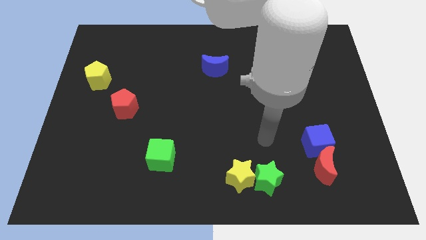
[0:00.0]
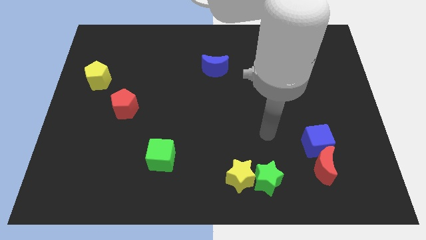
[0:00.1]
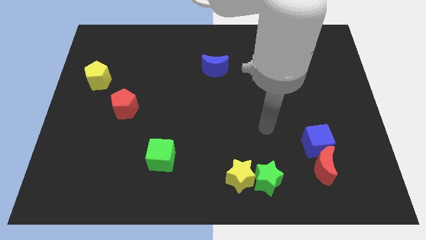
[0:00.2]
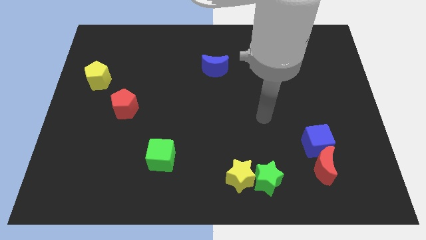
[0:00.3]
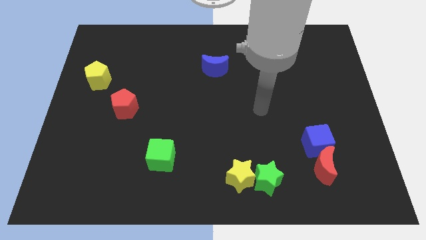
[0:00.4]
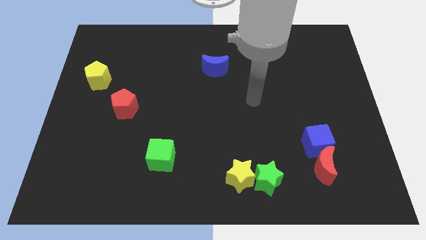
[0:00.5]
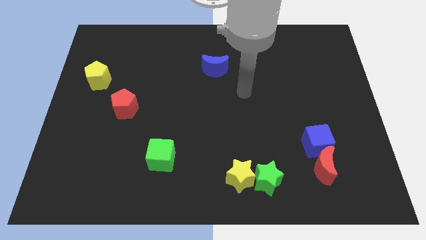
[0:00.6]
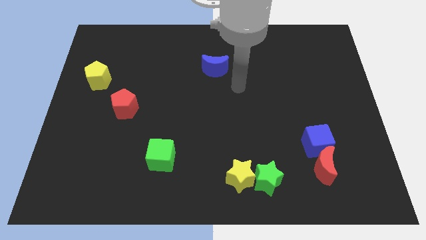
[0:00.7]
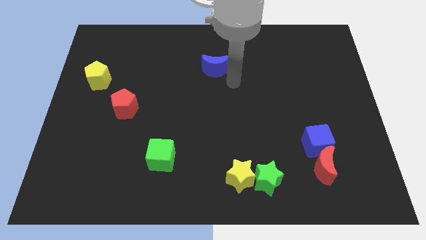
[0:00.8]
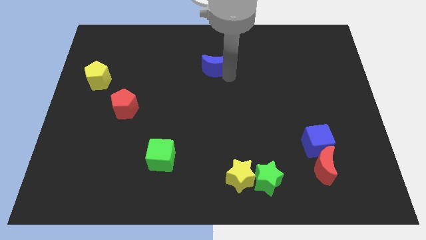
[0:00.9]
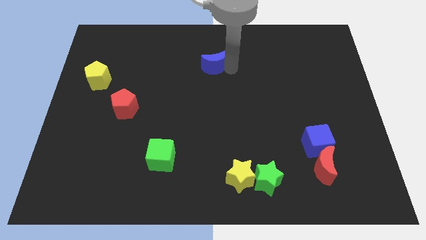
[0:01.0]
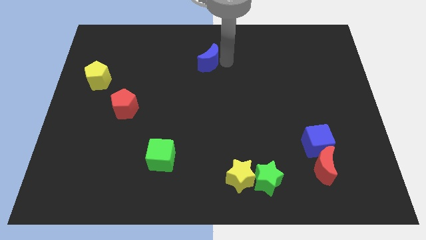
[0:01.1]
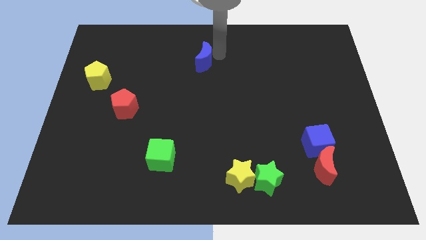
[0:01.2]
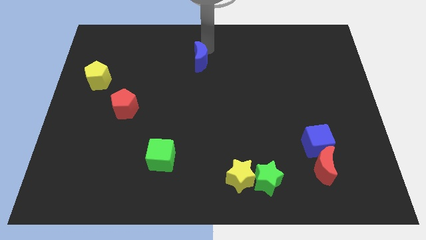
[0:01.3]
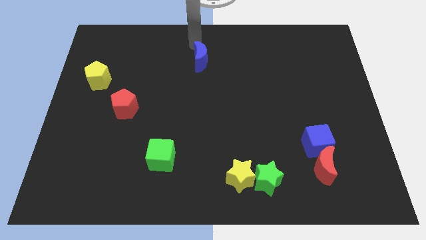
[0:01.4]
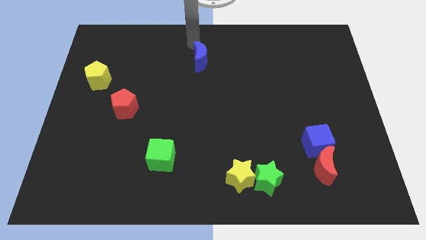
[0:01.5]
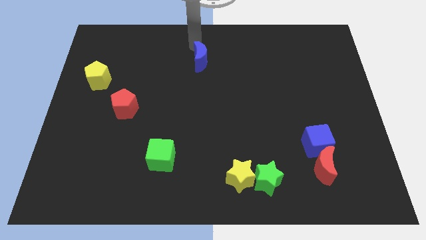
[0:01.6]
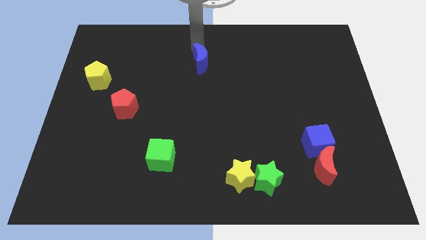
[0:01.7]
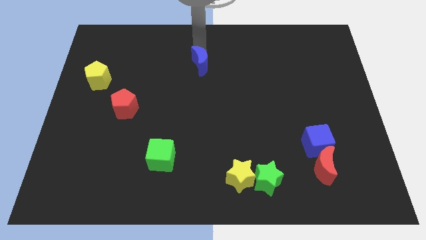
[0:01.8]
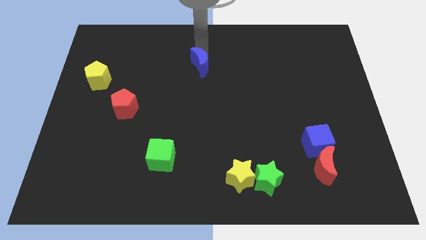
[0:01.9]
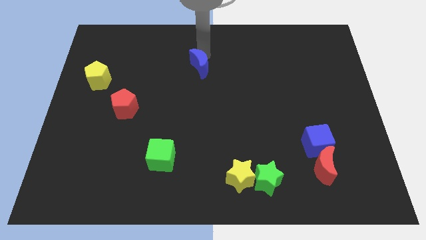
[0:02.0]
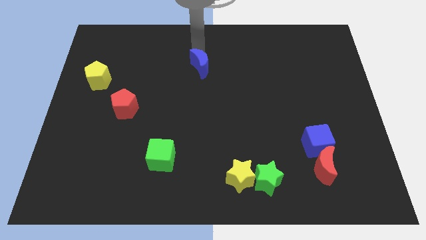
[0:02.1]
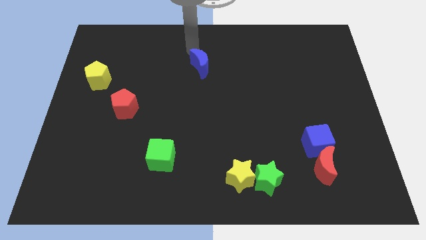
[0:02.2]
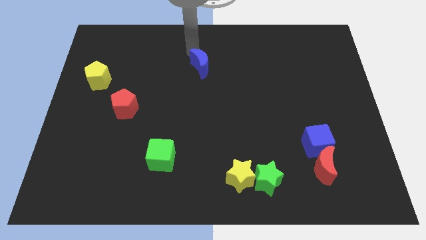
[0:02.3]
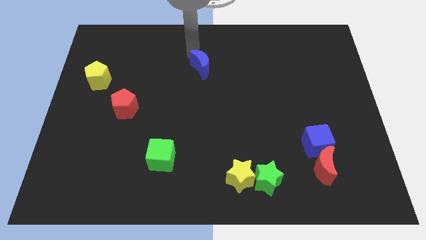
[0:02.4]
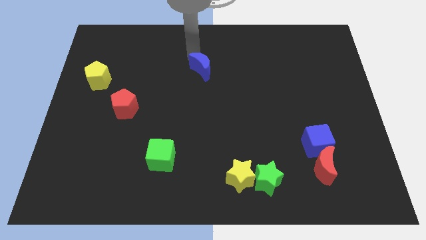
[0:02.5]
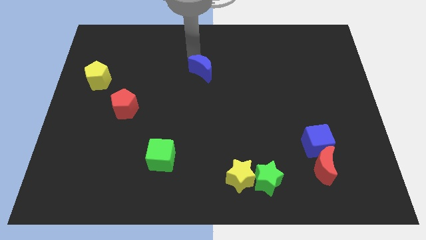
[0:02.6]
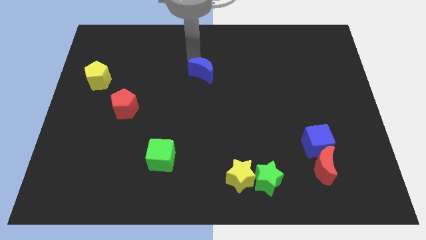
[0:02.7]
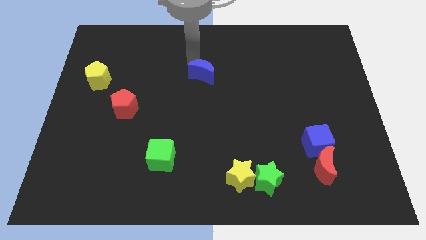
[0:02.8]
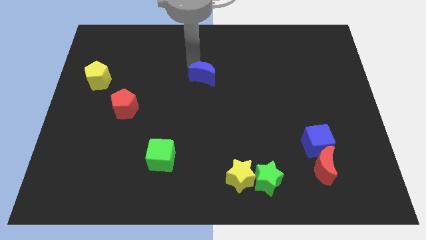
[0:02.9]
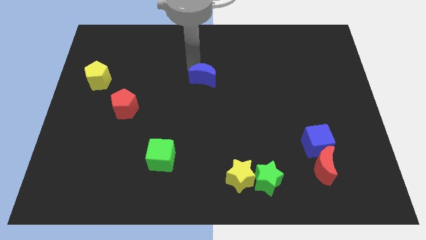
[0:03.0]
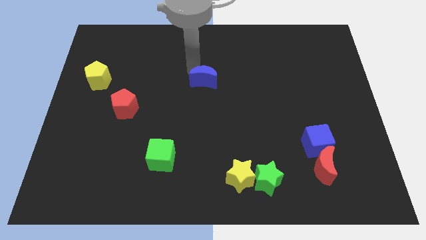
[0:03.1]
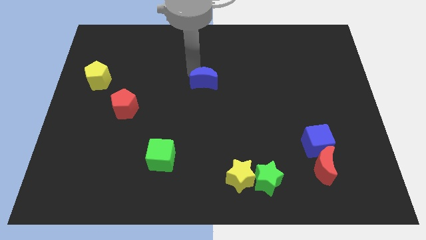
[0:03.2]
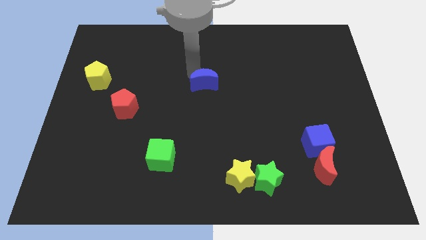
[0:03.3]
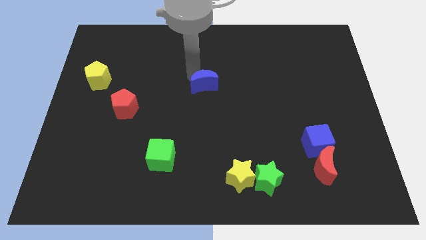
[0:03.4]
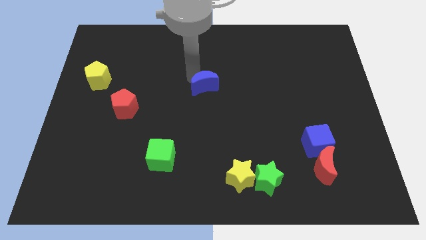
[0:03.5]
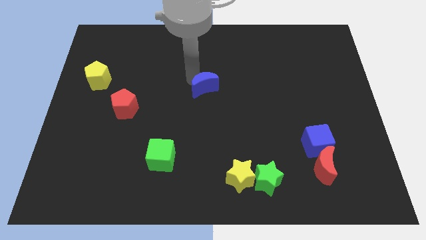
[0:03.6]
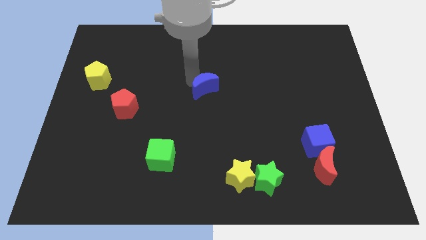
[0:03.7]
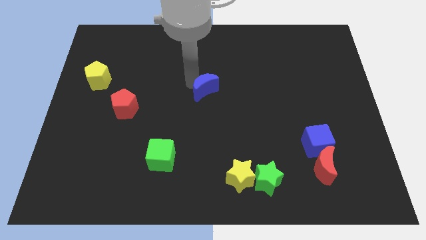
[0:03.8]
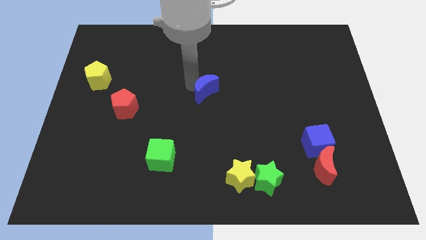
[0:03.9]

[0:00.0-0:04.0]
push the blue moon a little downwards

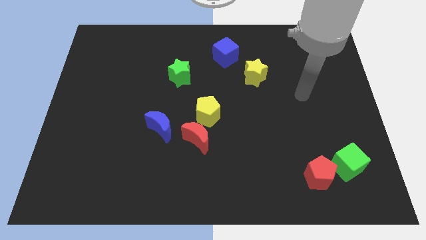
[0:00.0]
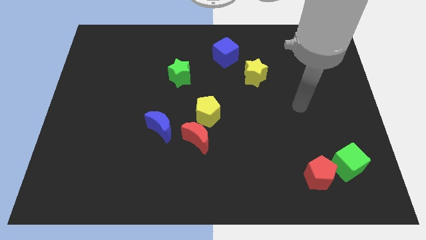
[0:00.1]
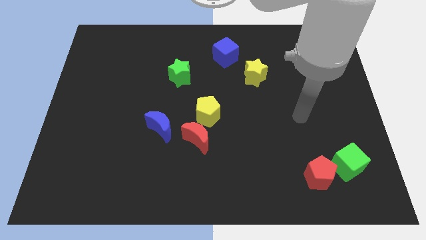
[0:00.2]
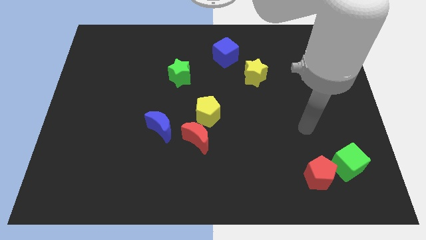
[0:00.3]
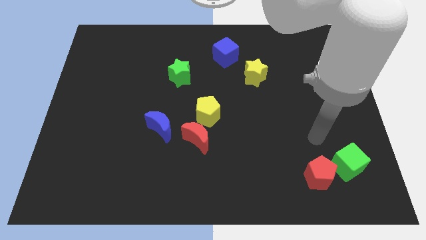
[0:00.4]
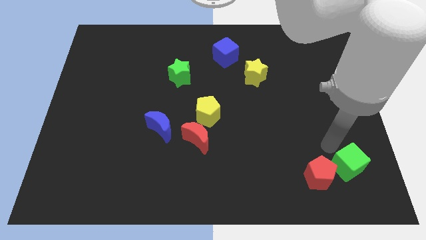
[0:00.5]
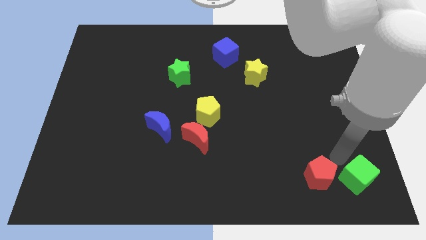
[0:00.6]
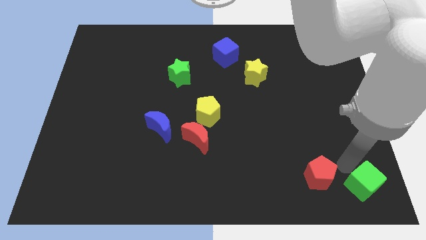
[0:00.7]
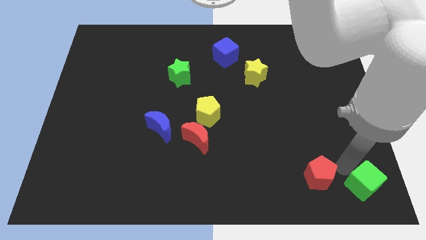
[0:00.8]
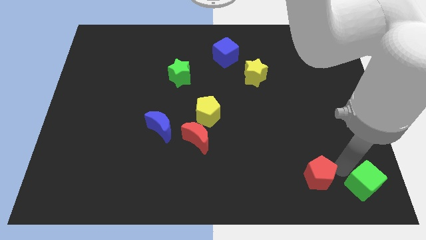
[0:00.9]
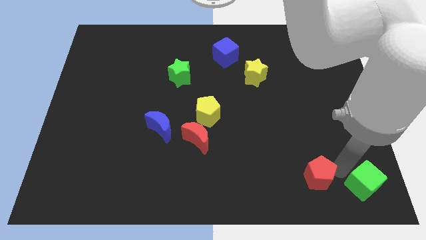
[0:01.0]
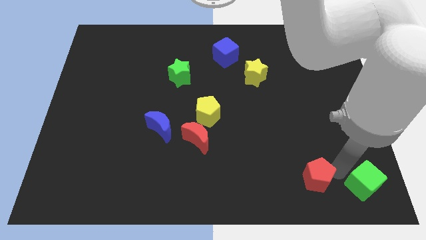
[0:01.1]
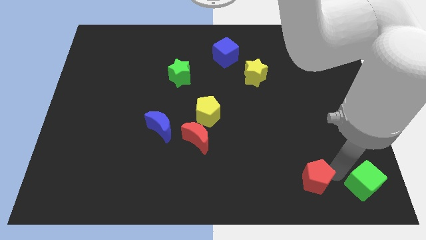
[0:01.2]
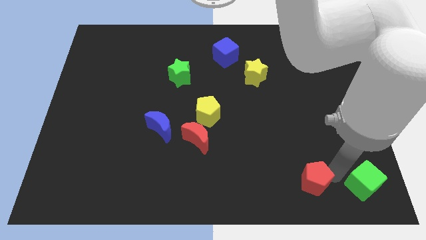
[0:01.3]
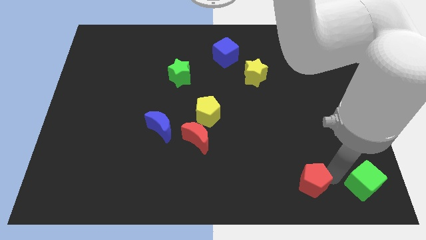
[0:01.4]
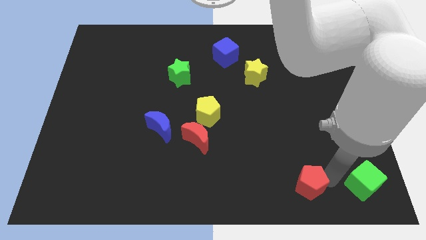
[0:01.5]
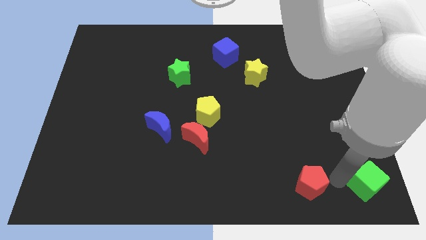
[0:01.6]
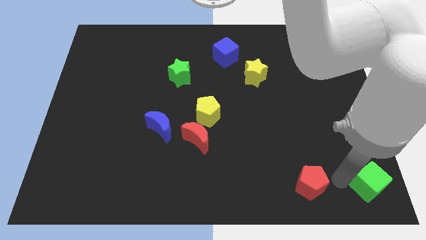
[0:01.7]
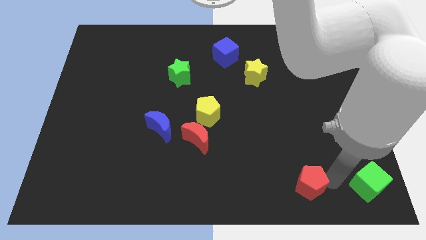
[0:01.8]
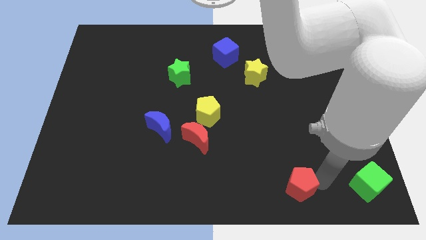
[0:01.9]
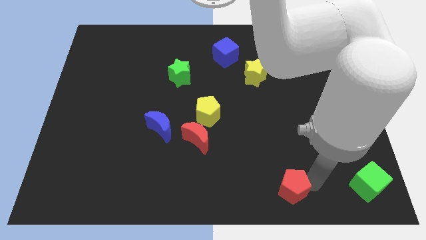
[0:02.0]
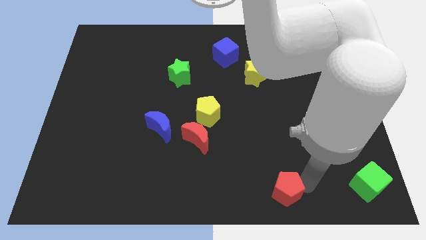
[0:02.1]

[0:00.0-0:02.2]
slightly push the red pentagon to the left

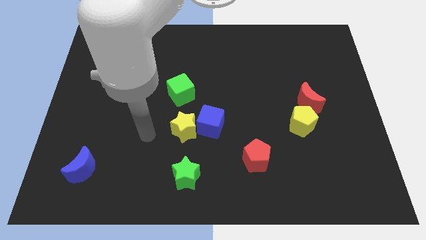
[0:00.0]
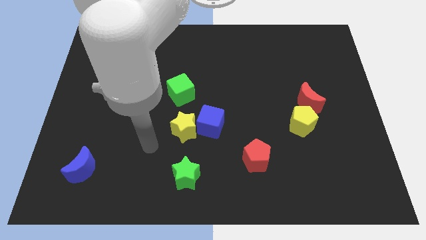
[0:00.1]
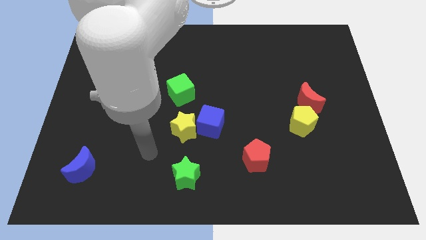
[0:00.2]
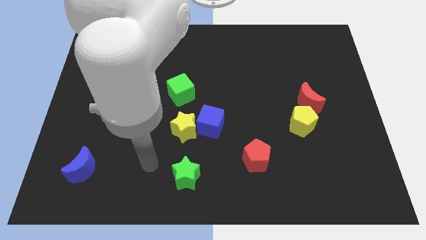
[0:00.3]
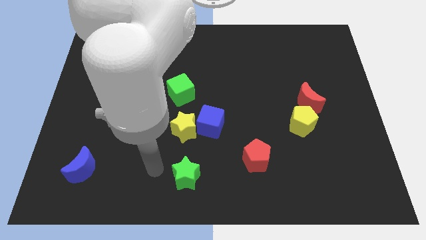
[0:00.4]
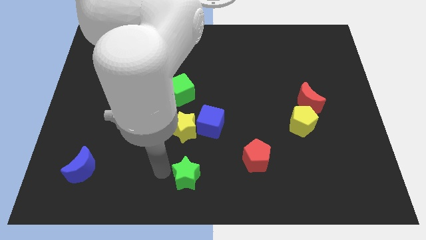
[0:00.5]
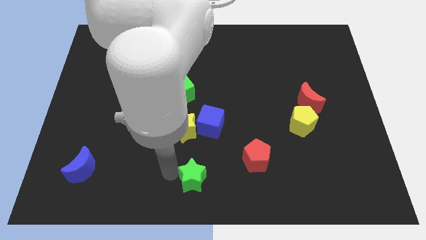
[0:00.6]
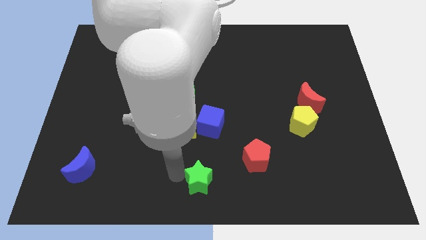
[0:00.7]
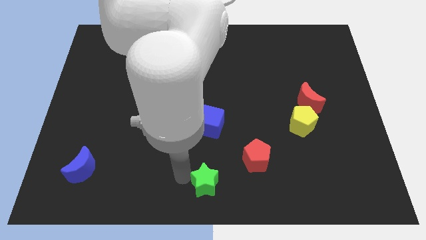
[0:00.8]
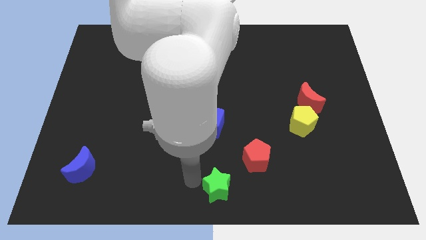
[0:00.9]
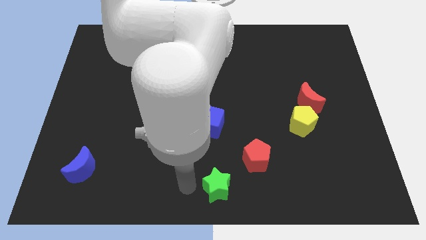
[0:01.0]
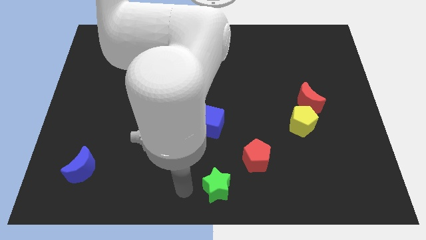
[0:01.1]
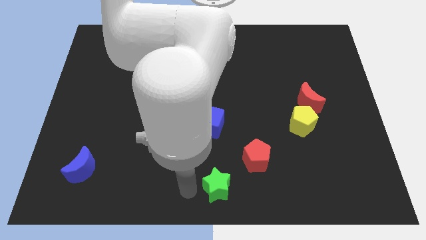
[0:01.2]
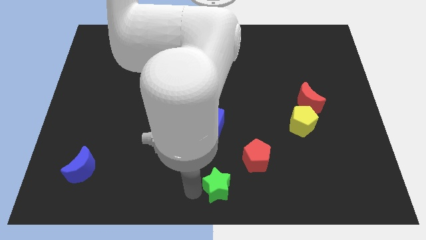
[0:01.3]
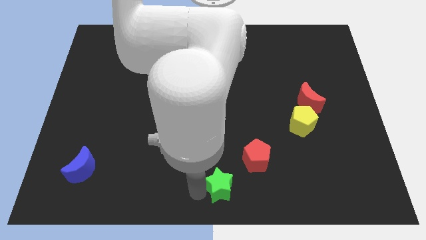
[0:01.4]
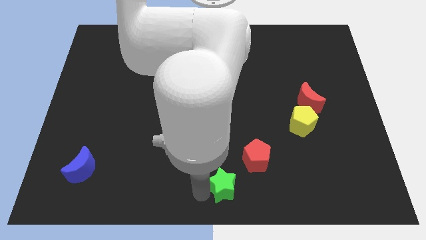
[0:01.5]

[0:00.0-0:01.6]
move the green star a little bit right
